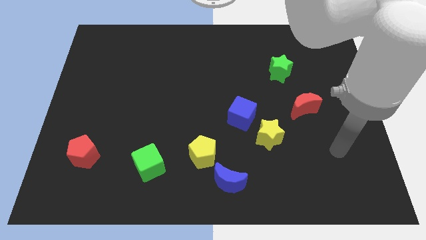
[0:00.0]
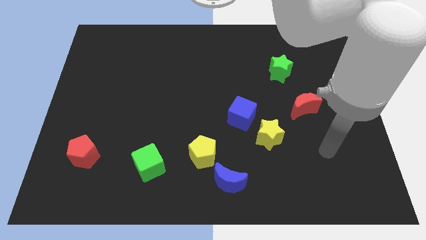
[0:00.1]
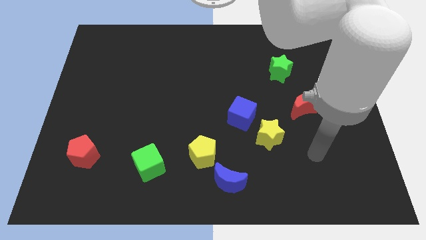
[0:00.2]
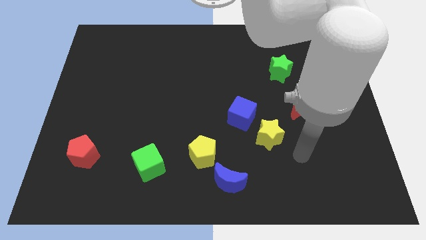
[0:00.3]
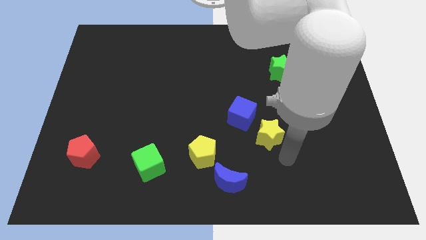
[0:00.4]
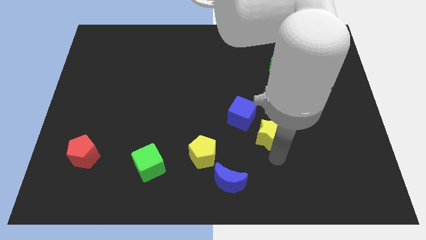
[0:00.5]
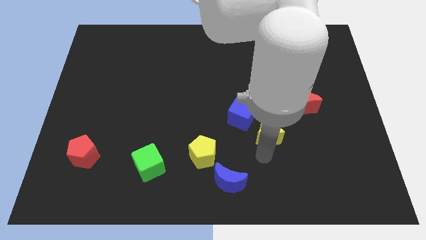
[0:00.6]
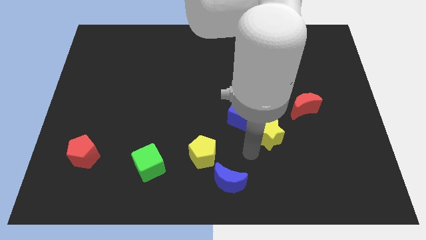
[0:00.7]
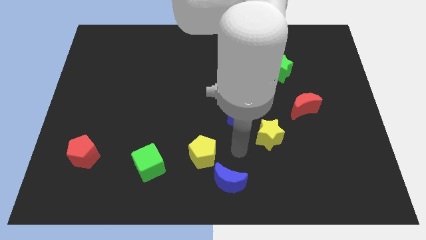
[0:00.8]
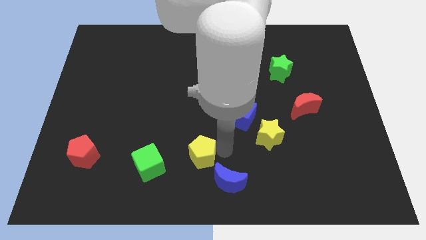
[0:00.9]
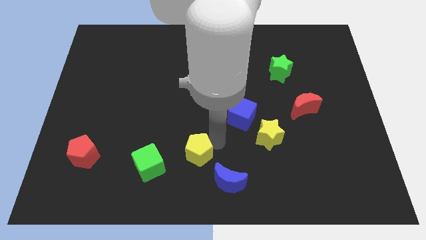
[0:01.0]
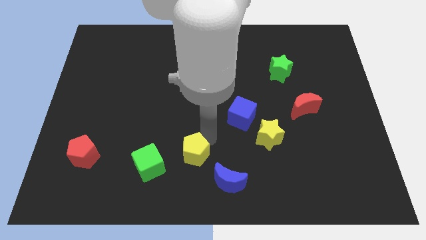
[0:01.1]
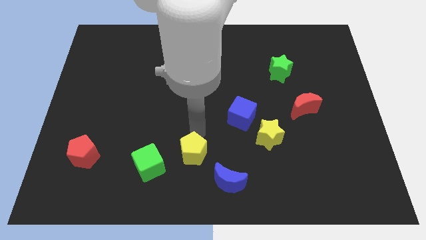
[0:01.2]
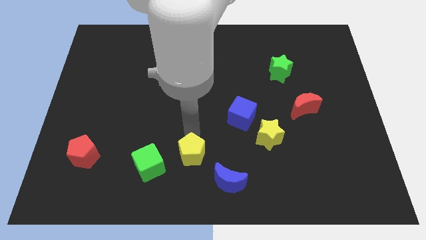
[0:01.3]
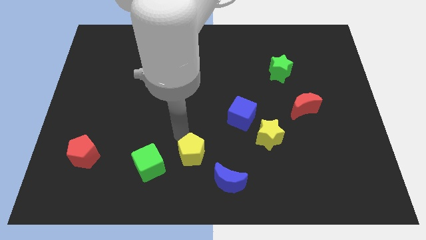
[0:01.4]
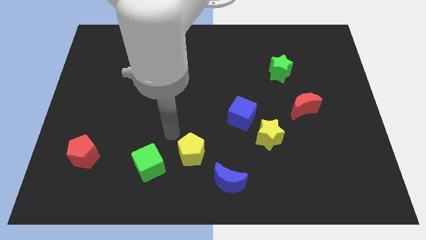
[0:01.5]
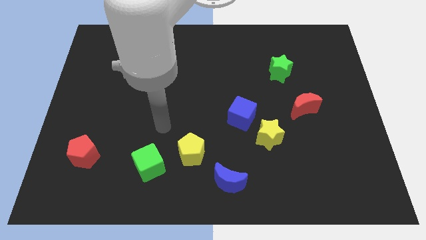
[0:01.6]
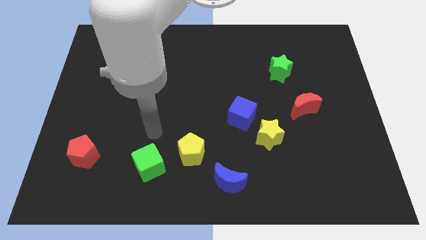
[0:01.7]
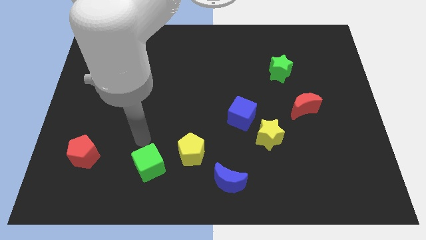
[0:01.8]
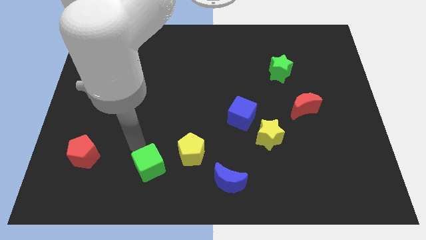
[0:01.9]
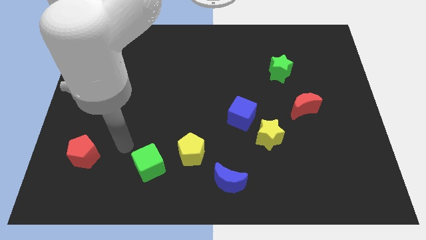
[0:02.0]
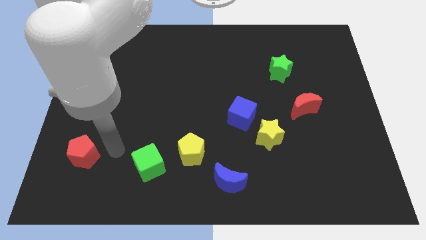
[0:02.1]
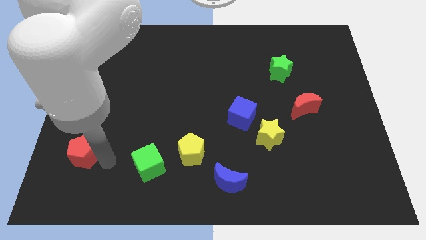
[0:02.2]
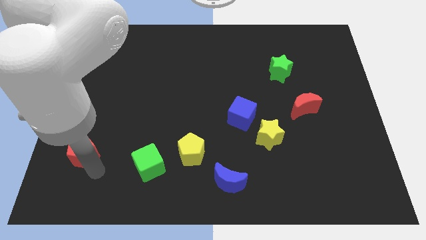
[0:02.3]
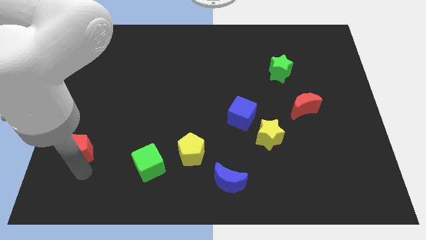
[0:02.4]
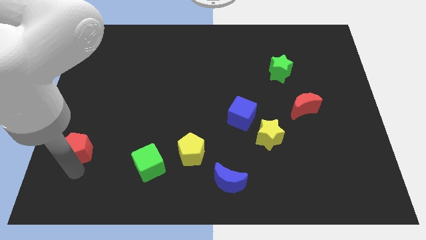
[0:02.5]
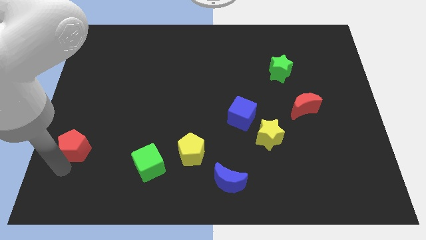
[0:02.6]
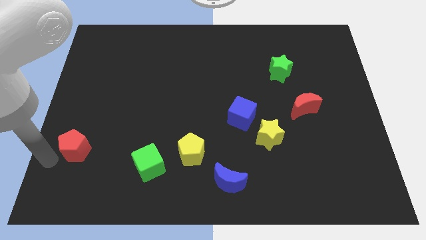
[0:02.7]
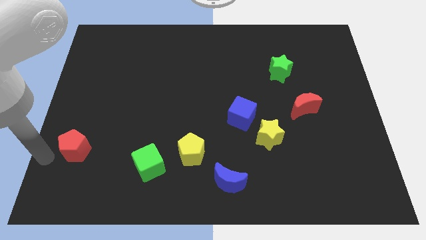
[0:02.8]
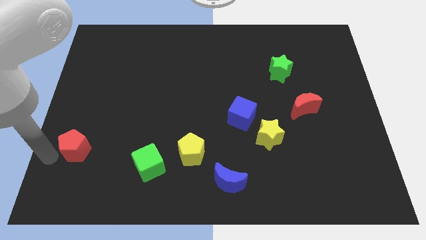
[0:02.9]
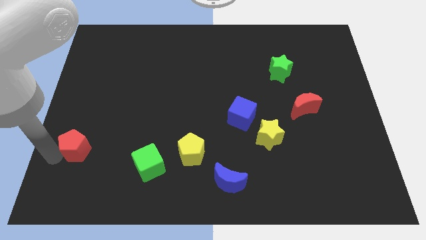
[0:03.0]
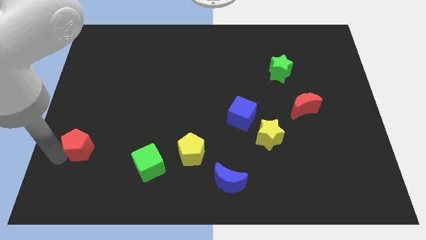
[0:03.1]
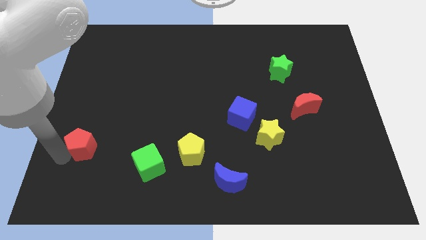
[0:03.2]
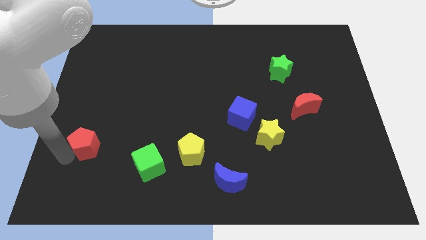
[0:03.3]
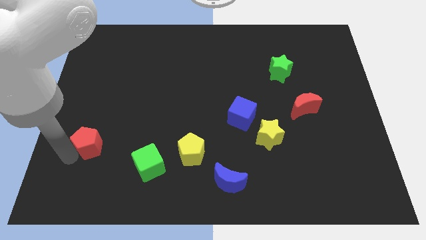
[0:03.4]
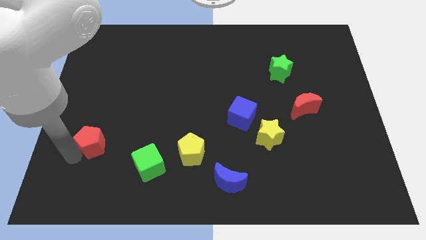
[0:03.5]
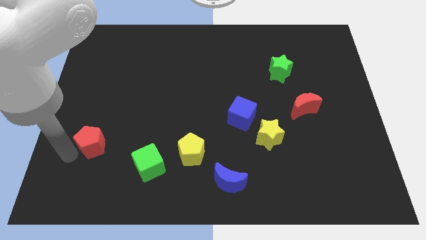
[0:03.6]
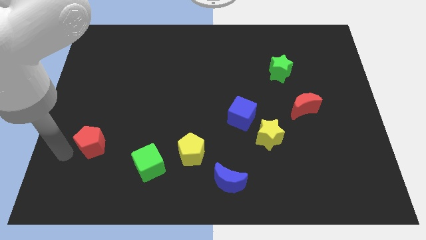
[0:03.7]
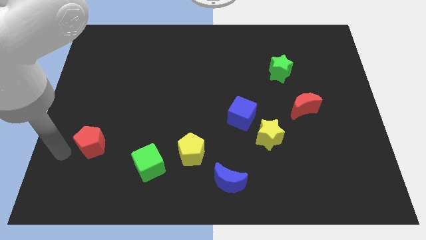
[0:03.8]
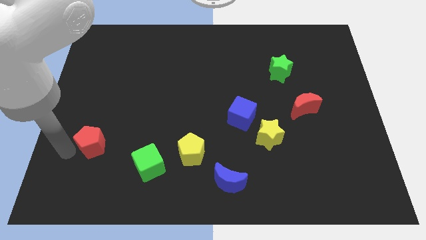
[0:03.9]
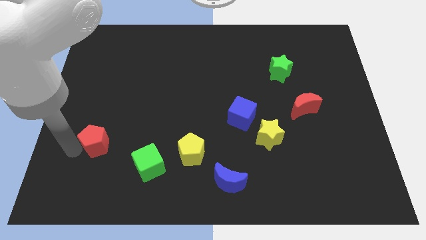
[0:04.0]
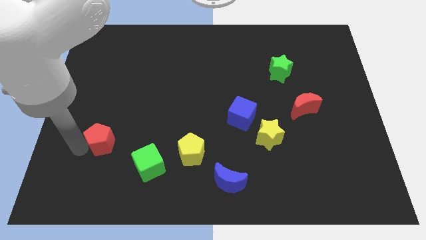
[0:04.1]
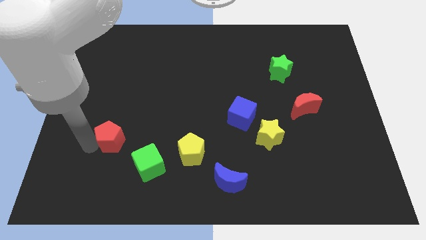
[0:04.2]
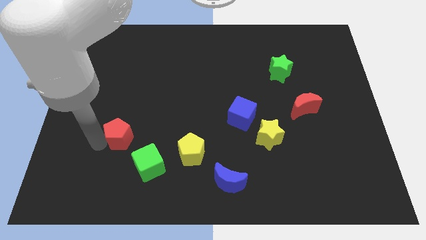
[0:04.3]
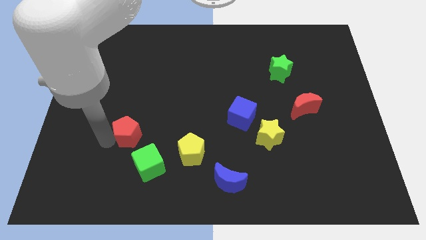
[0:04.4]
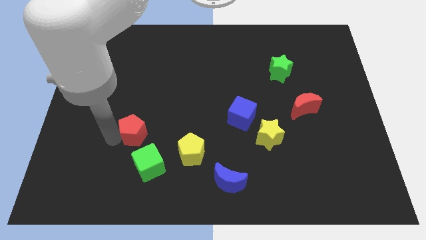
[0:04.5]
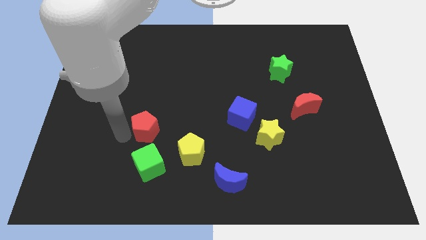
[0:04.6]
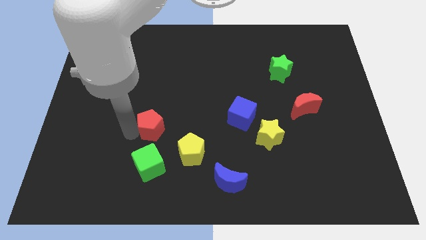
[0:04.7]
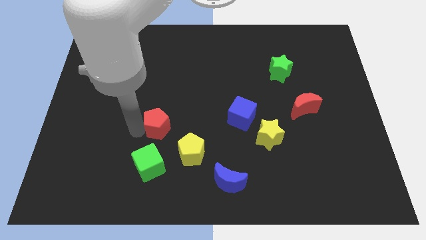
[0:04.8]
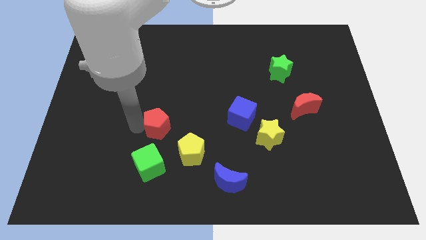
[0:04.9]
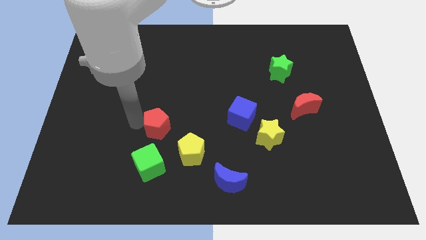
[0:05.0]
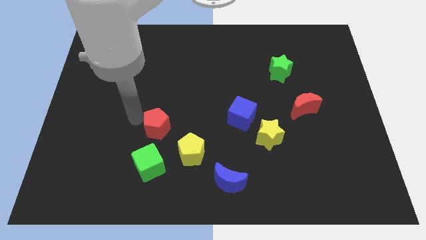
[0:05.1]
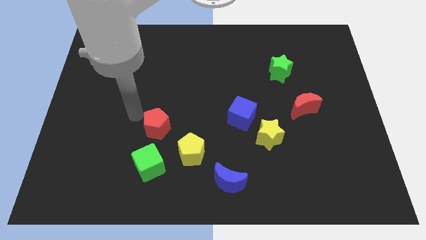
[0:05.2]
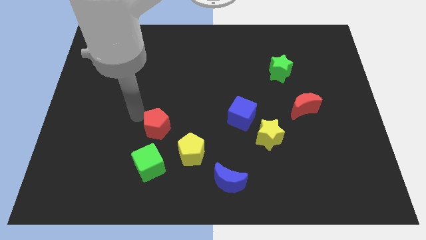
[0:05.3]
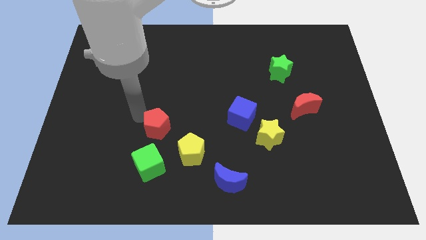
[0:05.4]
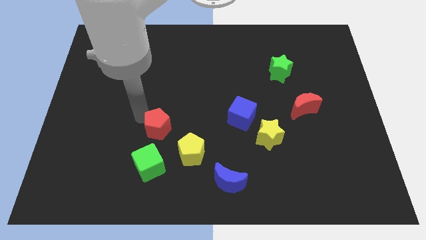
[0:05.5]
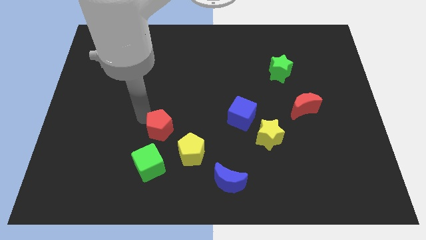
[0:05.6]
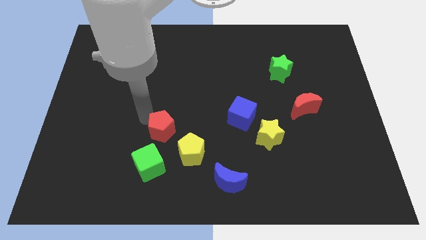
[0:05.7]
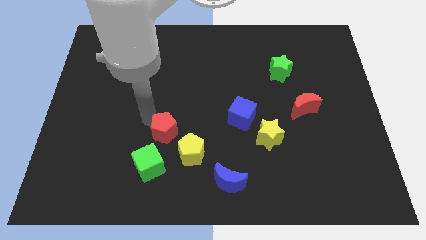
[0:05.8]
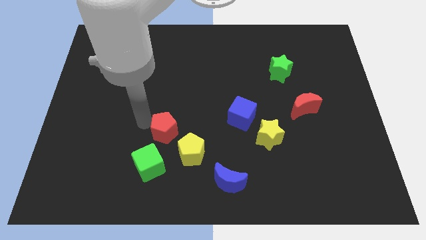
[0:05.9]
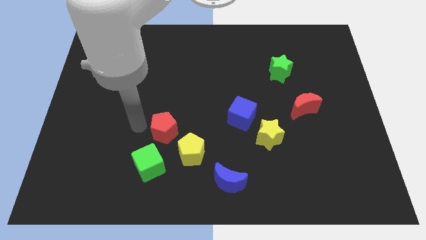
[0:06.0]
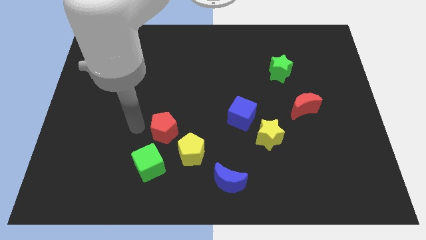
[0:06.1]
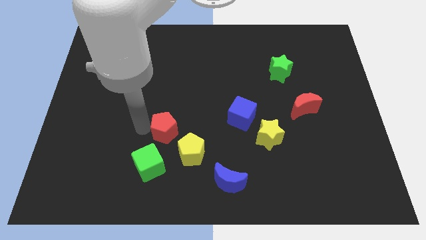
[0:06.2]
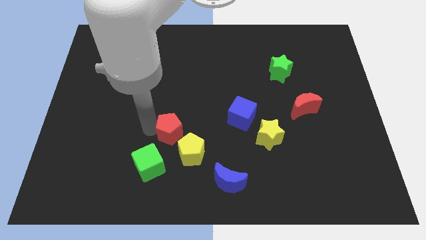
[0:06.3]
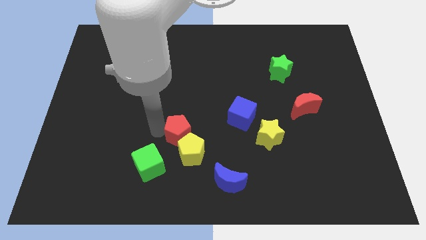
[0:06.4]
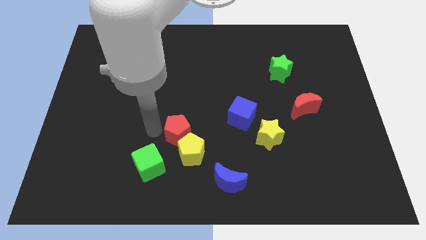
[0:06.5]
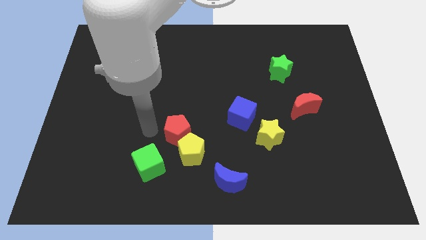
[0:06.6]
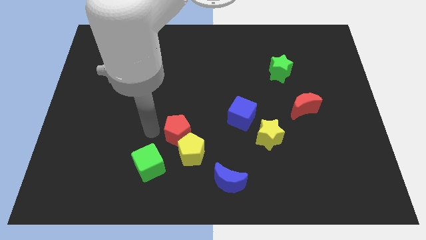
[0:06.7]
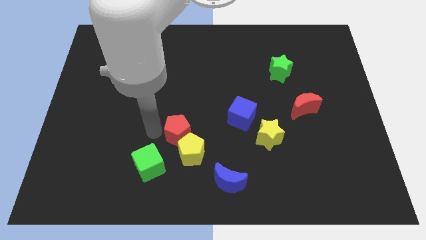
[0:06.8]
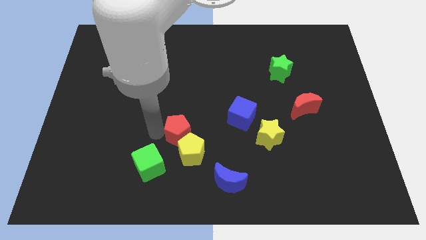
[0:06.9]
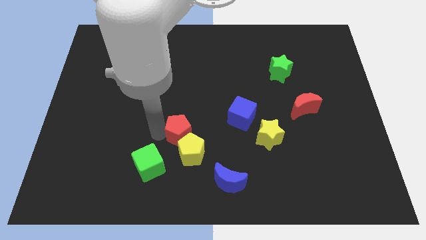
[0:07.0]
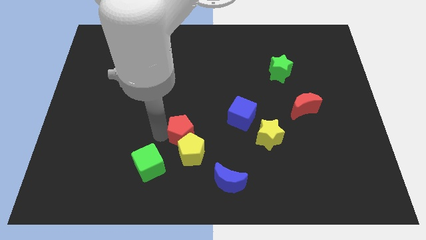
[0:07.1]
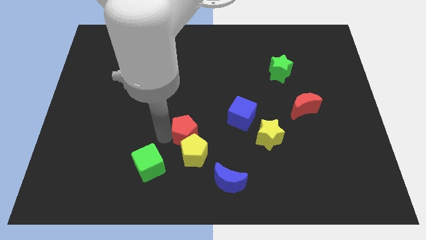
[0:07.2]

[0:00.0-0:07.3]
push the red pentagon right

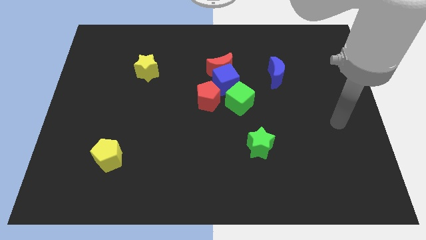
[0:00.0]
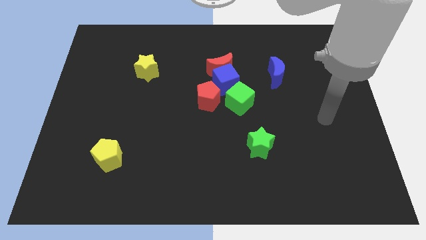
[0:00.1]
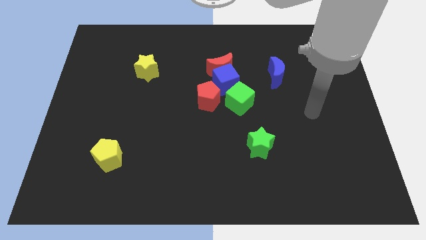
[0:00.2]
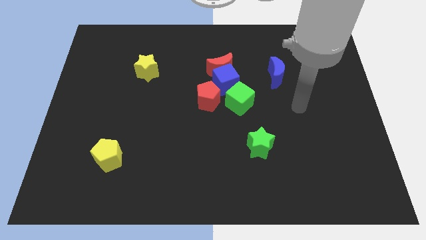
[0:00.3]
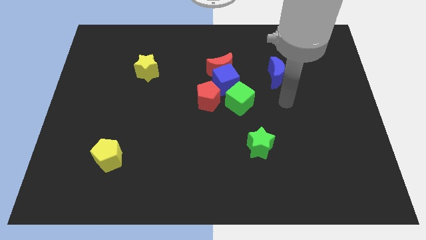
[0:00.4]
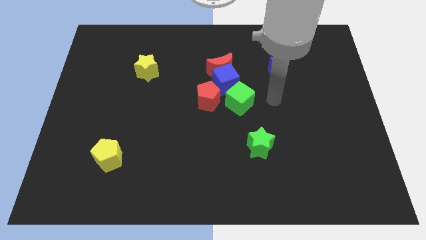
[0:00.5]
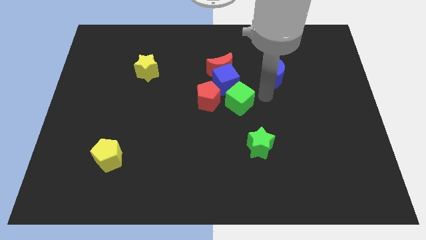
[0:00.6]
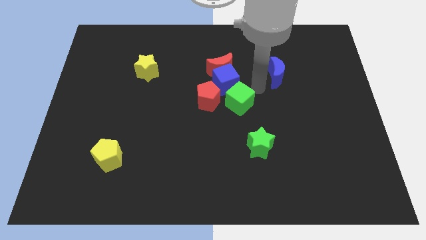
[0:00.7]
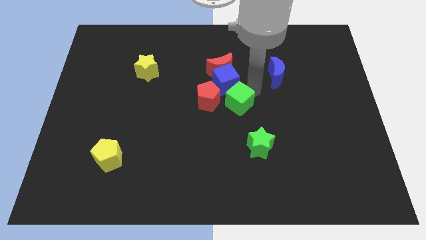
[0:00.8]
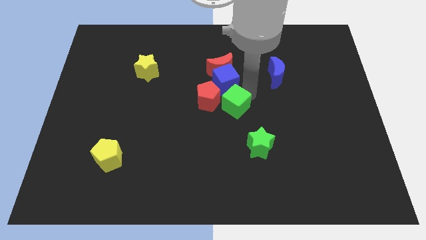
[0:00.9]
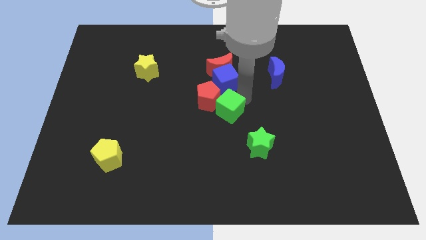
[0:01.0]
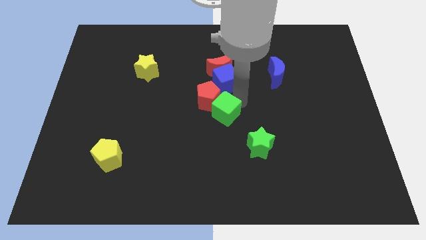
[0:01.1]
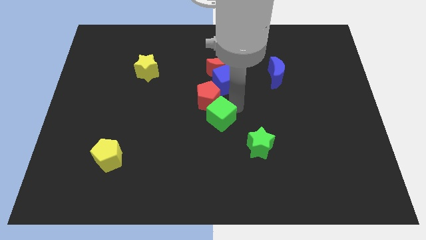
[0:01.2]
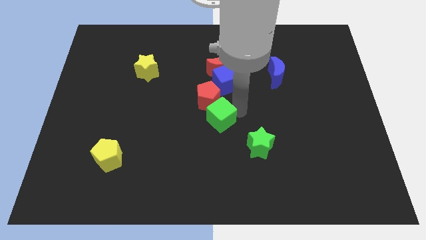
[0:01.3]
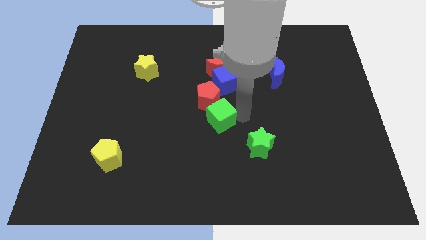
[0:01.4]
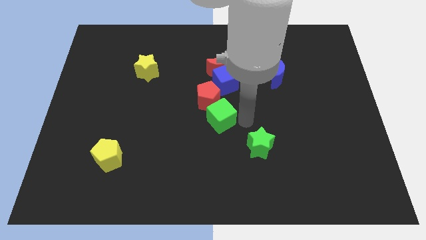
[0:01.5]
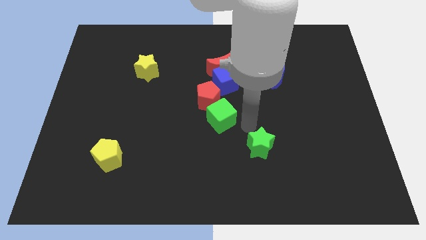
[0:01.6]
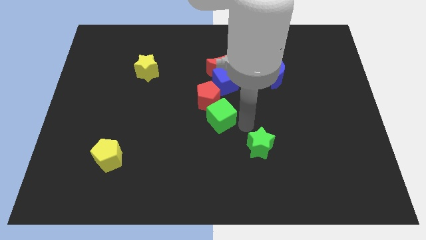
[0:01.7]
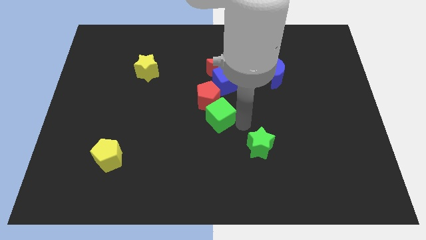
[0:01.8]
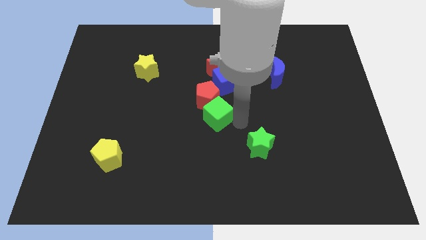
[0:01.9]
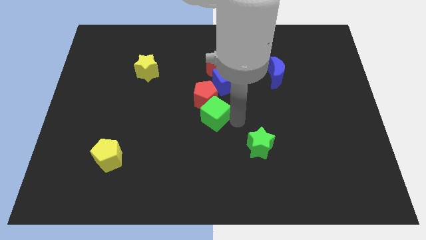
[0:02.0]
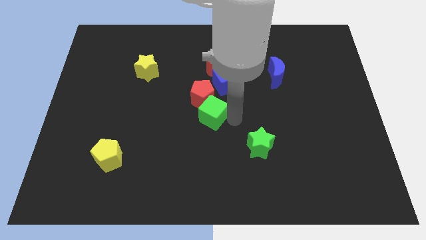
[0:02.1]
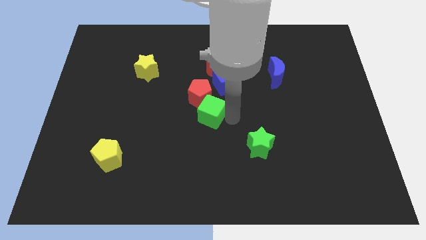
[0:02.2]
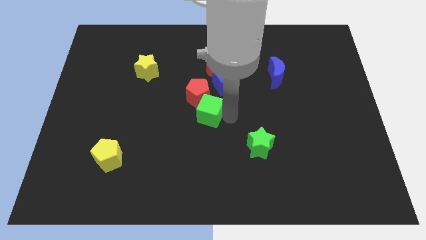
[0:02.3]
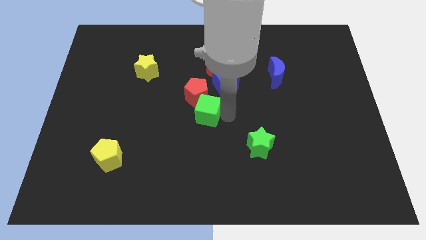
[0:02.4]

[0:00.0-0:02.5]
move the green cube left somewhat
